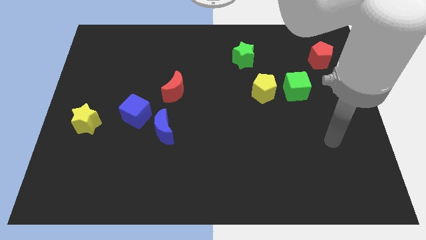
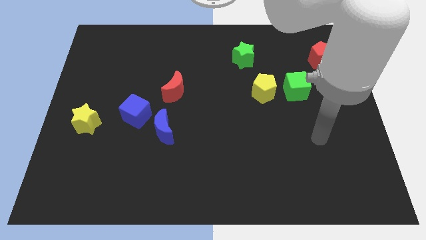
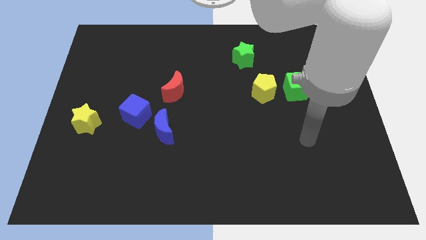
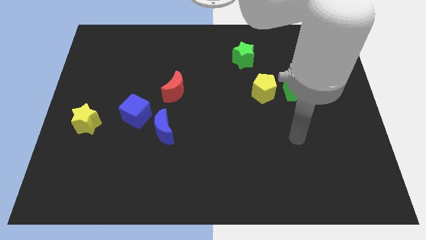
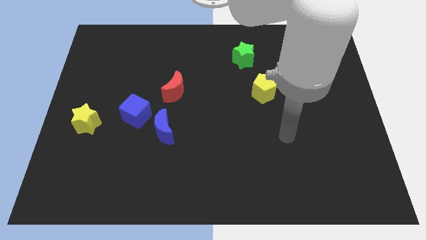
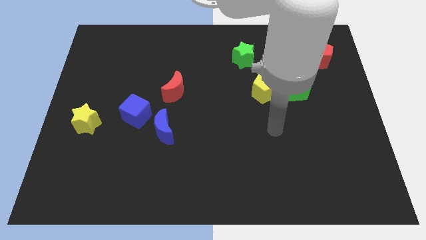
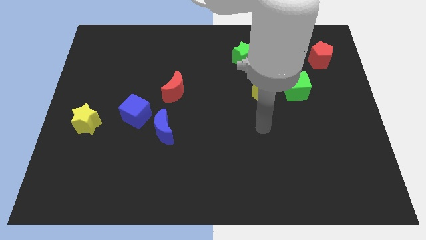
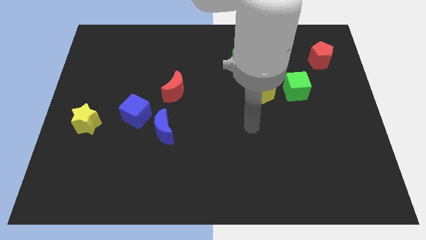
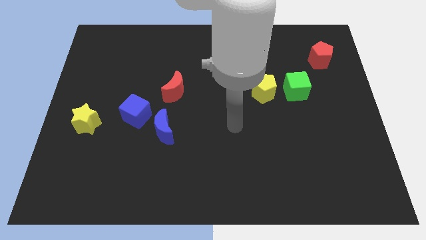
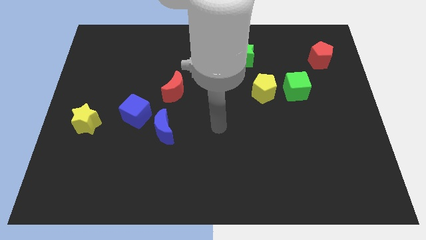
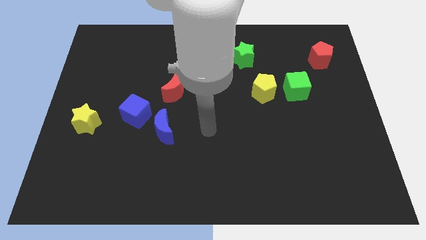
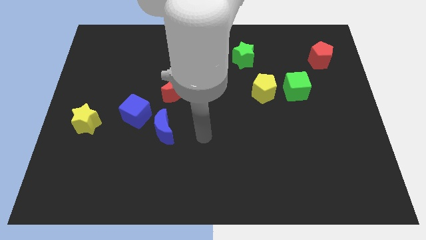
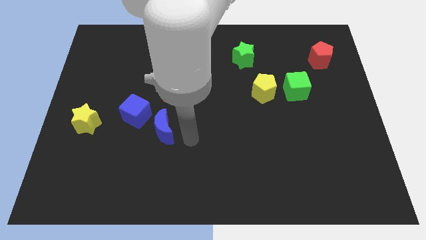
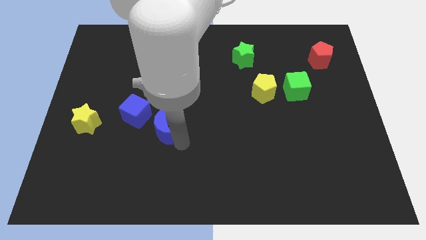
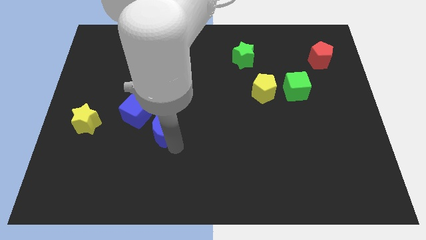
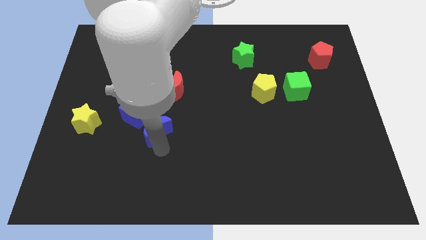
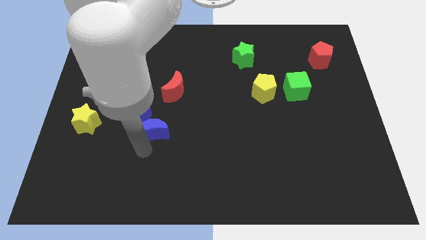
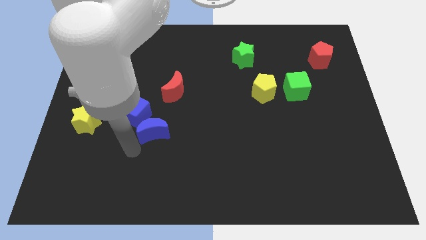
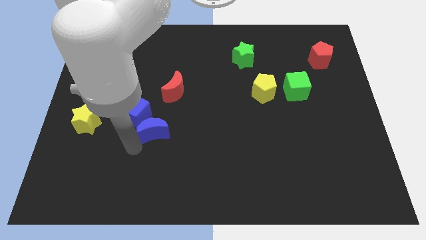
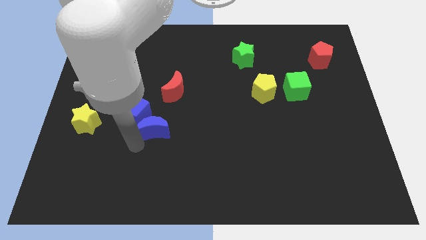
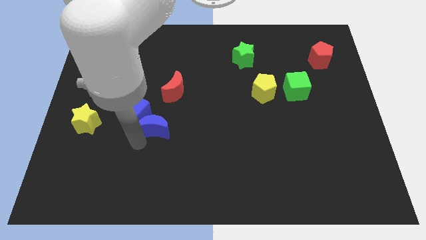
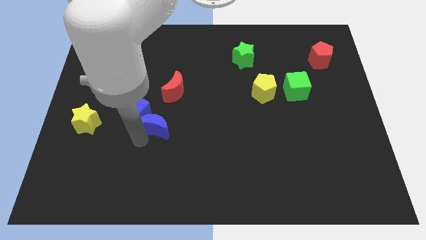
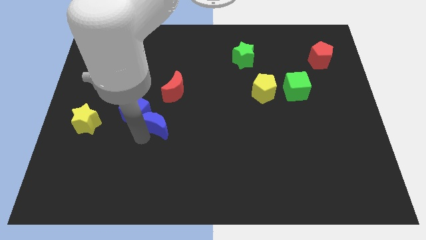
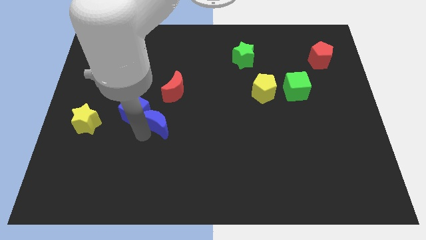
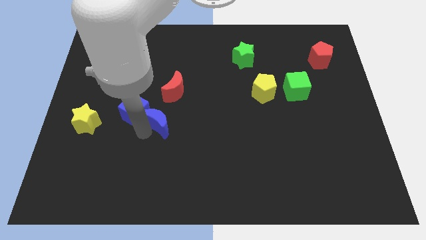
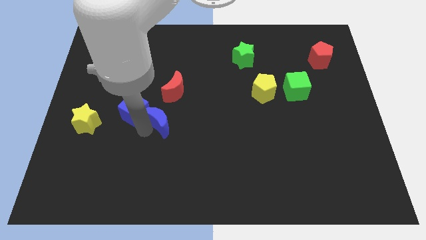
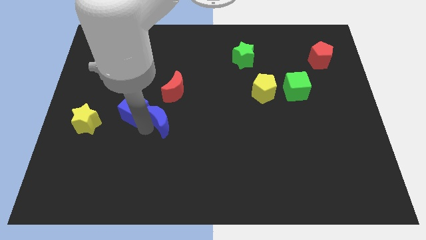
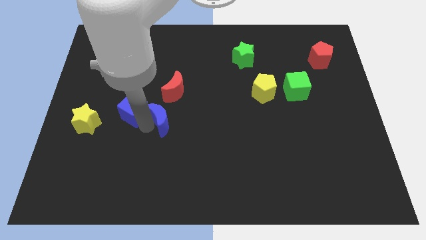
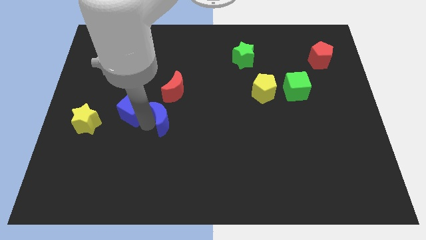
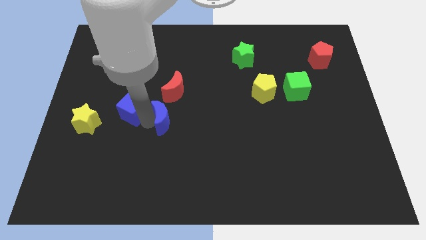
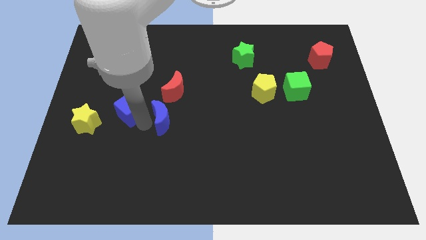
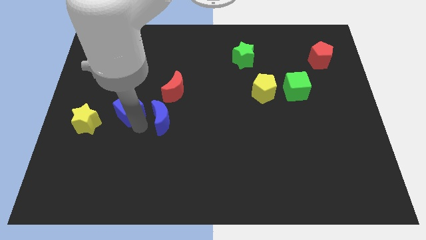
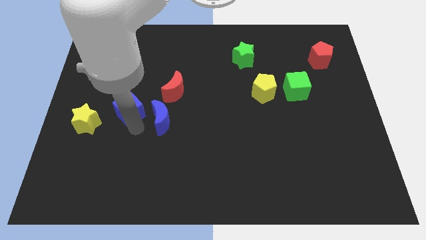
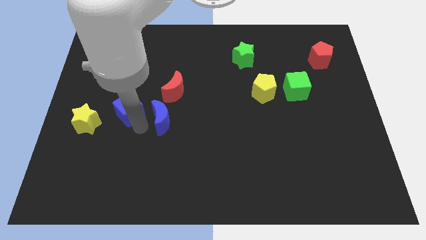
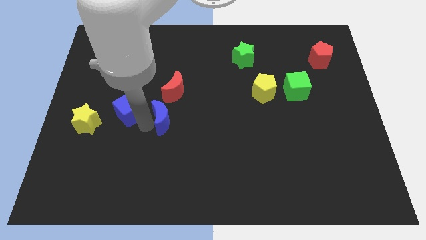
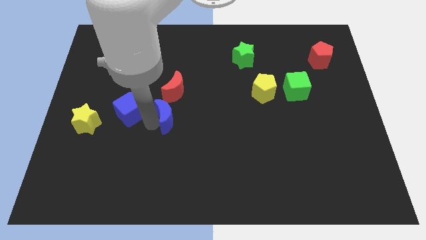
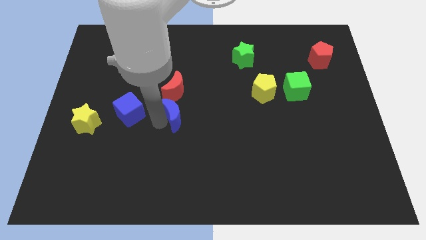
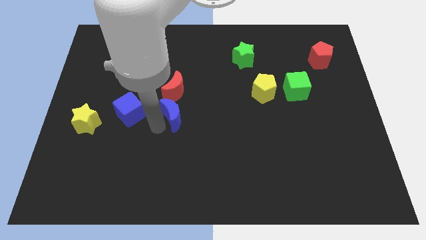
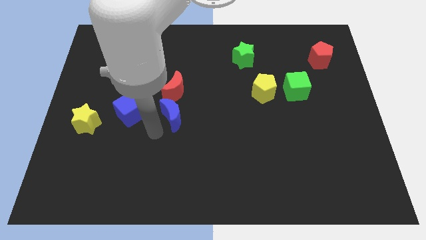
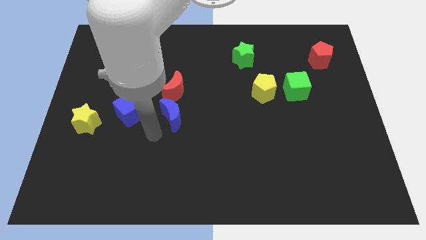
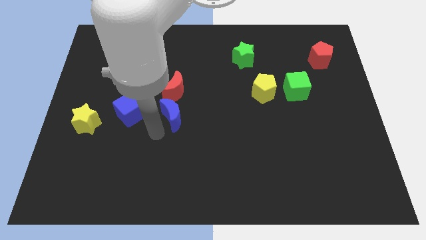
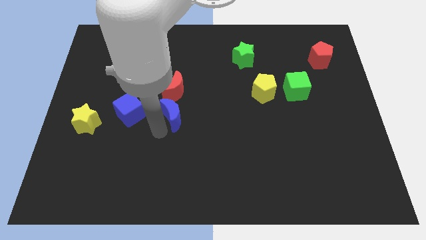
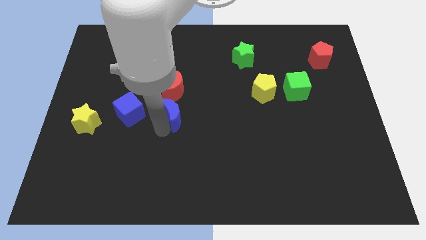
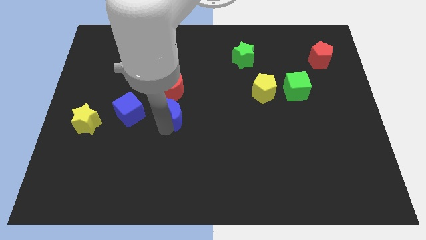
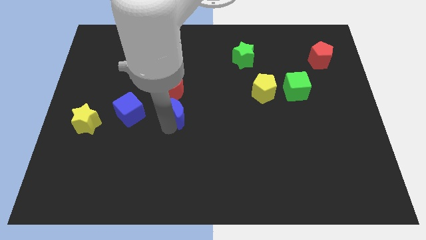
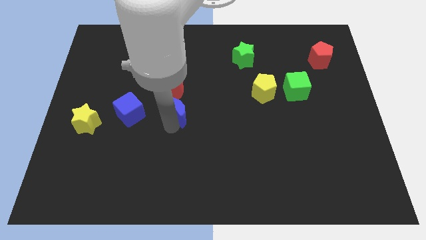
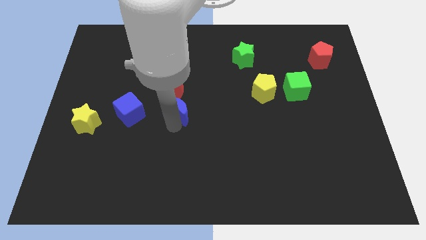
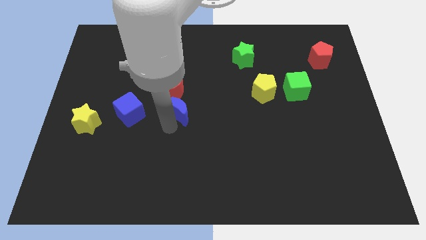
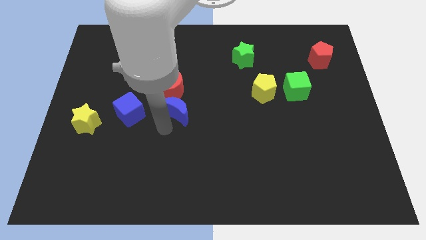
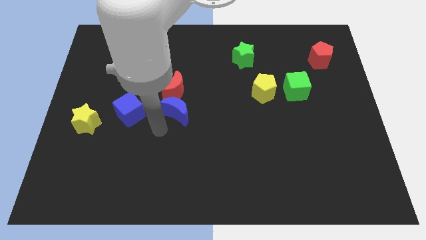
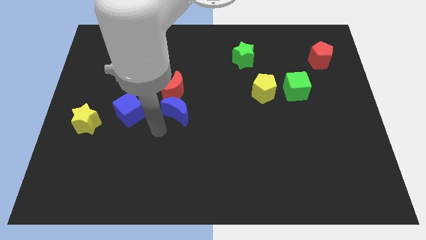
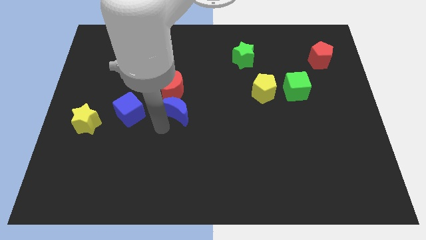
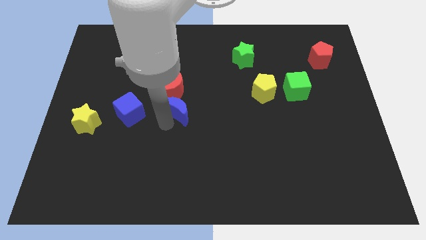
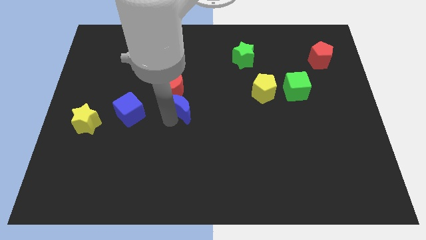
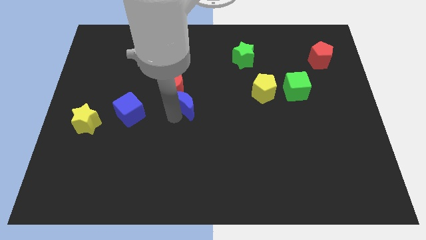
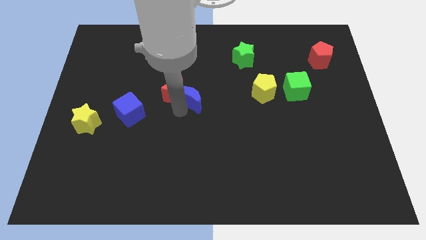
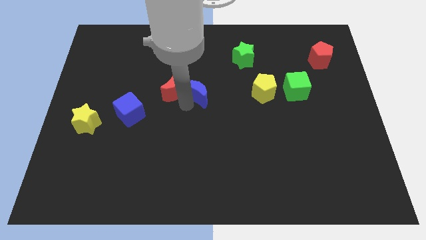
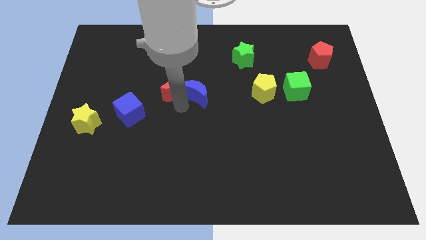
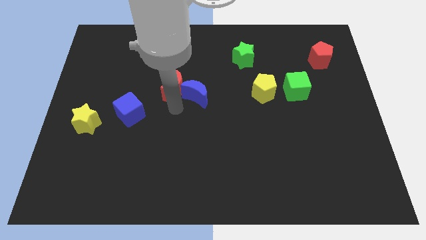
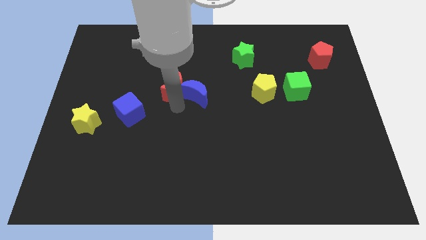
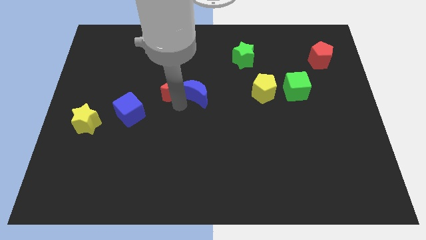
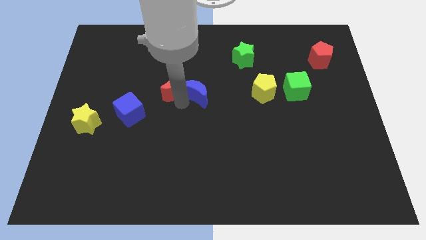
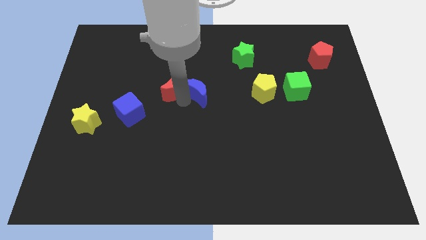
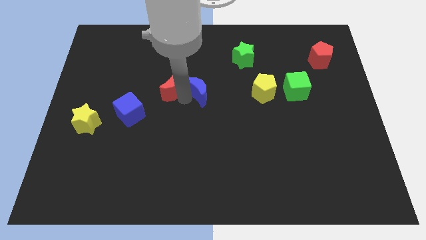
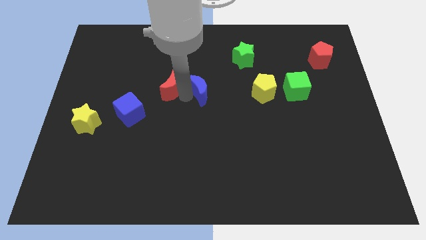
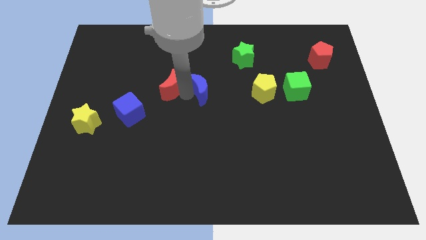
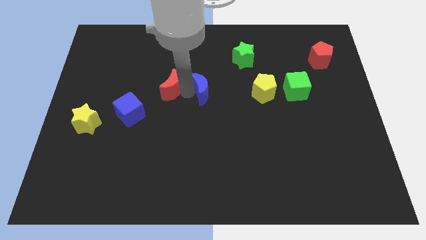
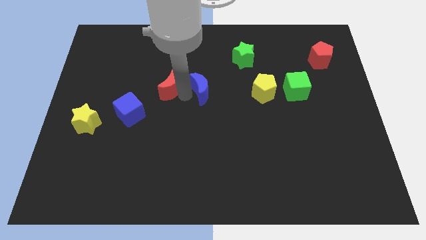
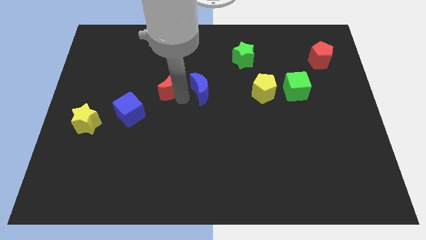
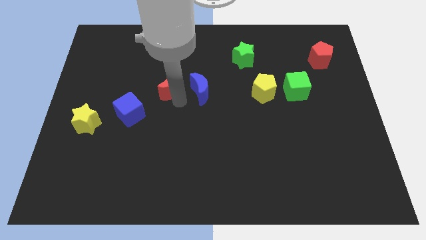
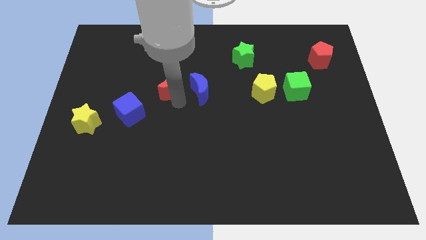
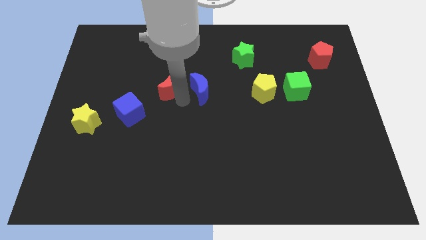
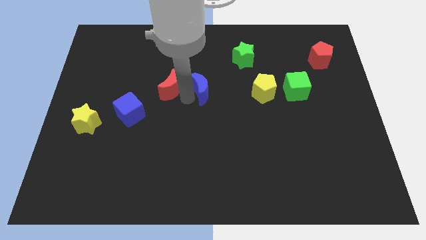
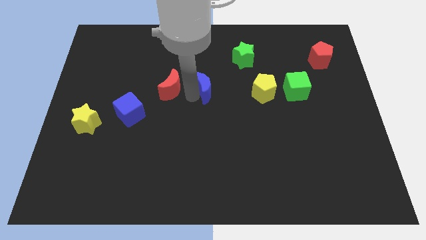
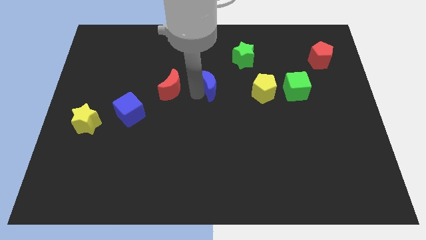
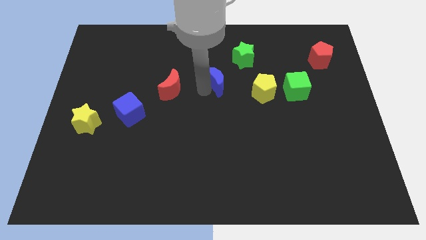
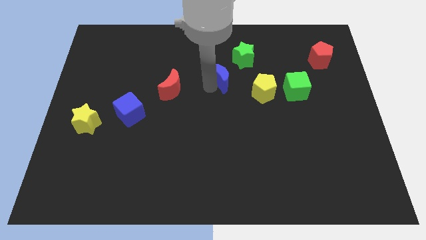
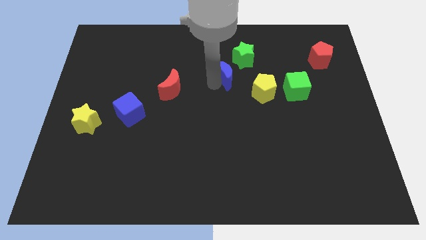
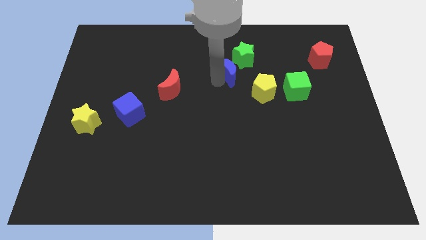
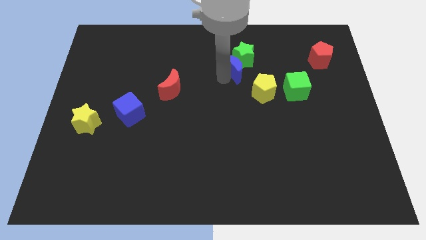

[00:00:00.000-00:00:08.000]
move the blue moon to the green star
